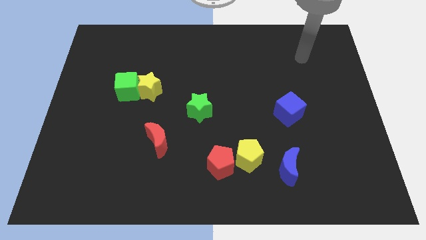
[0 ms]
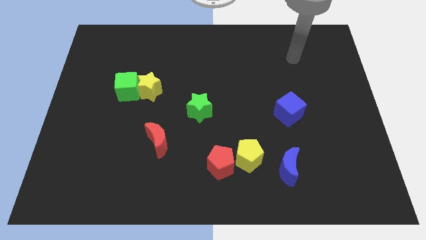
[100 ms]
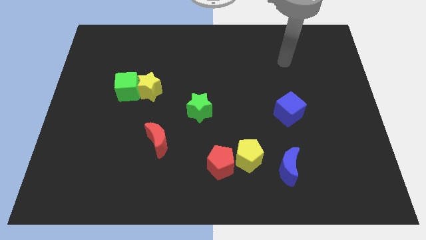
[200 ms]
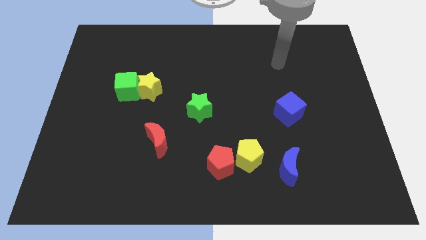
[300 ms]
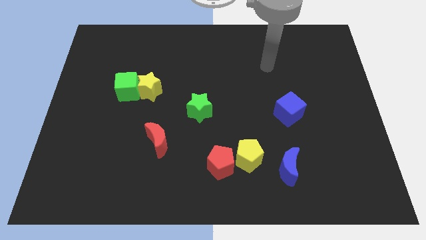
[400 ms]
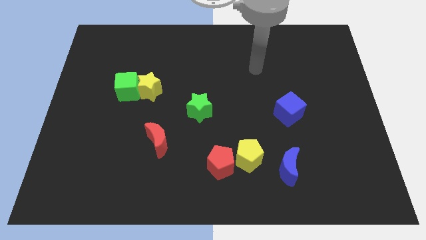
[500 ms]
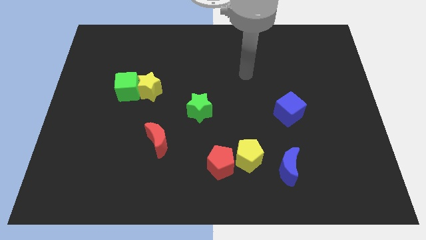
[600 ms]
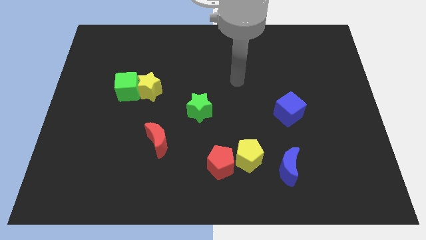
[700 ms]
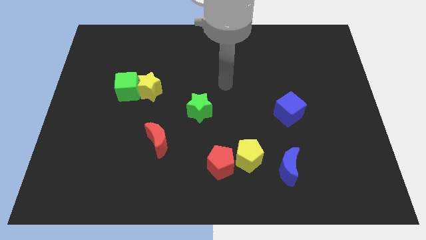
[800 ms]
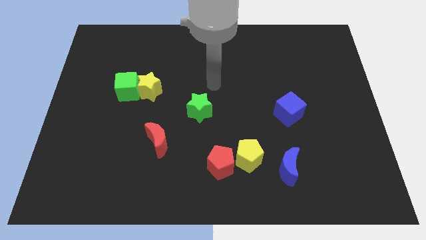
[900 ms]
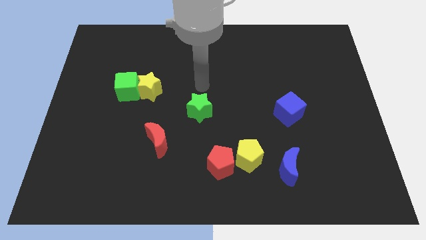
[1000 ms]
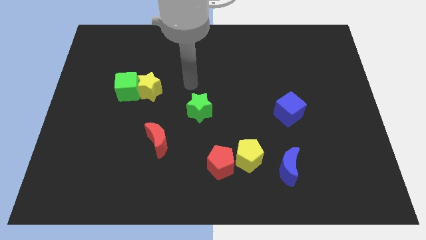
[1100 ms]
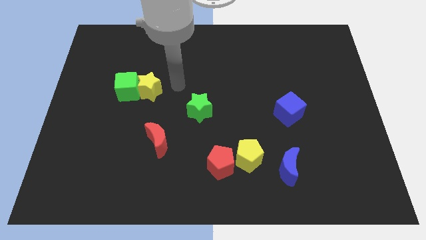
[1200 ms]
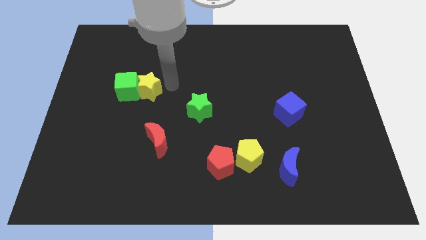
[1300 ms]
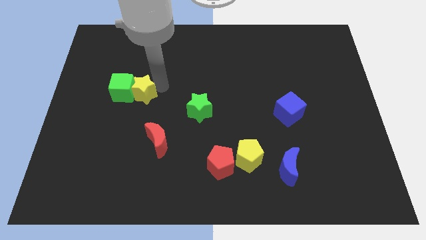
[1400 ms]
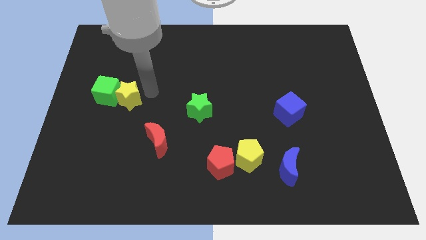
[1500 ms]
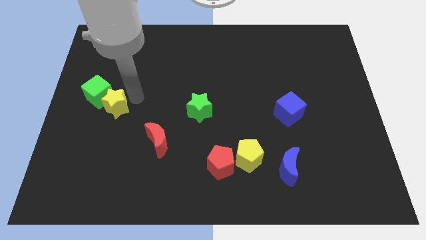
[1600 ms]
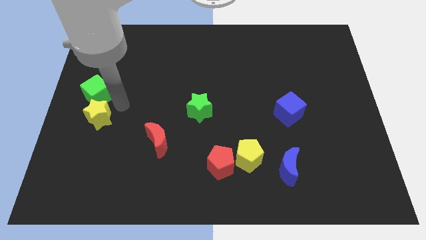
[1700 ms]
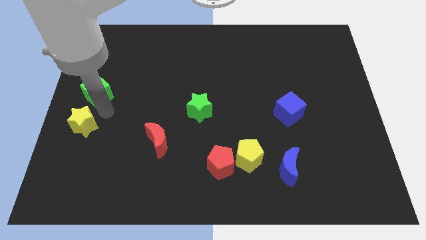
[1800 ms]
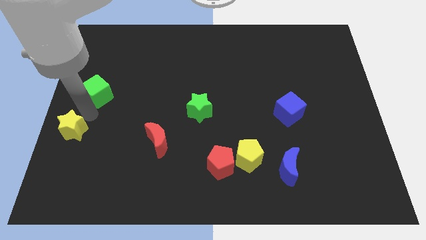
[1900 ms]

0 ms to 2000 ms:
separate the green cube from the yellow star

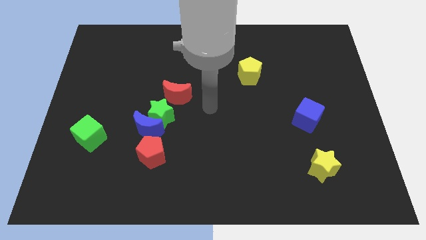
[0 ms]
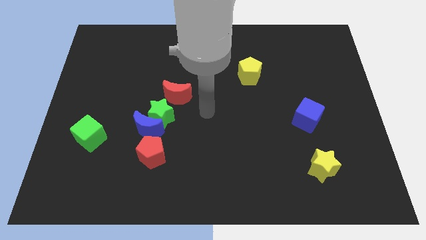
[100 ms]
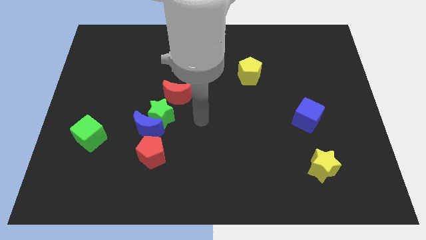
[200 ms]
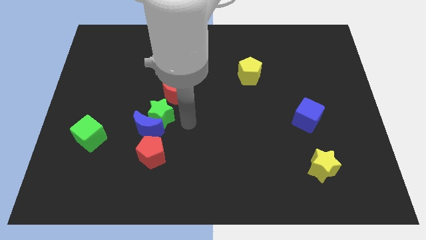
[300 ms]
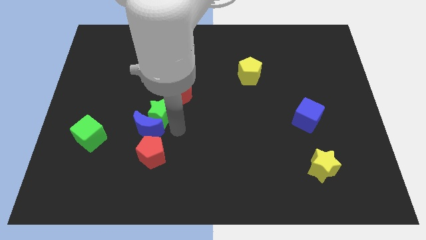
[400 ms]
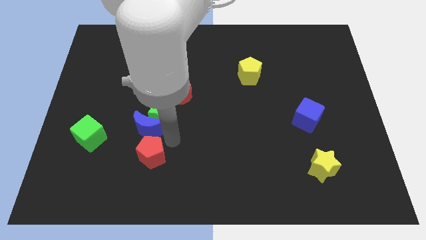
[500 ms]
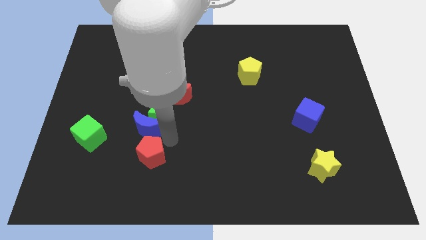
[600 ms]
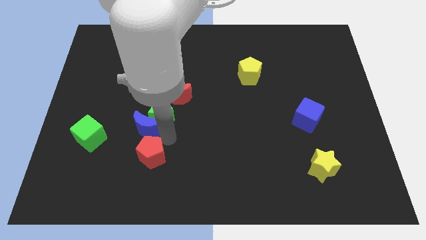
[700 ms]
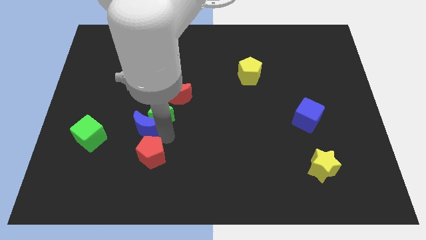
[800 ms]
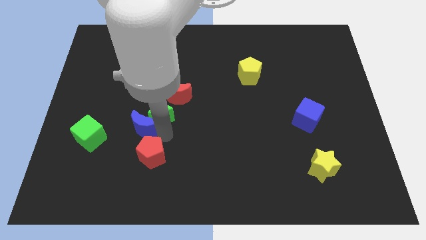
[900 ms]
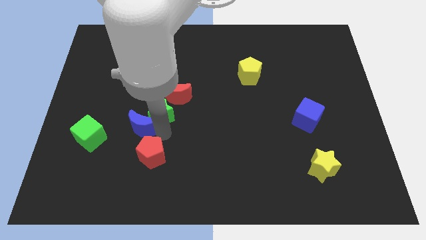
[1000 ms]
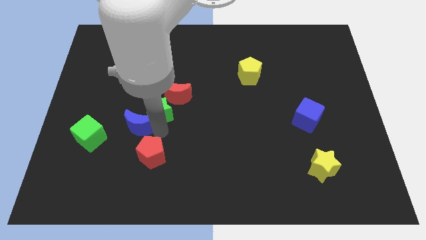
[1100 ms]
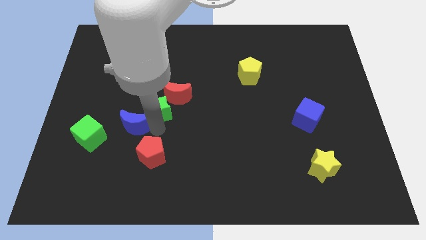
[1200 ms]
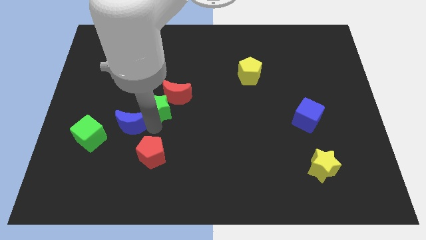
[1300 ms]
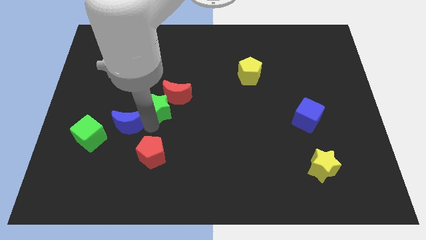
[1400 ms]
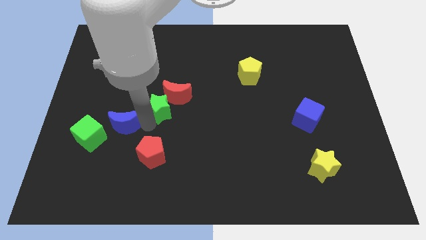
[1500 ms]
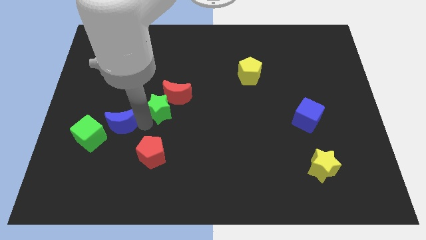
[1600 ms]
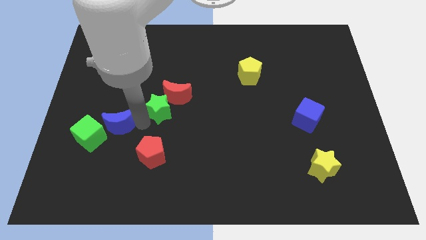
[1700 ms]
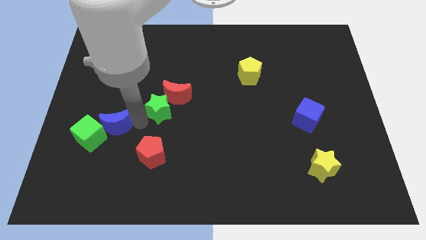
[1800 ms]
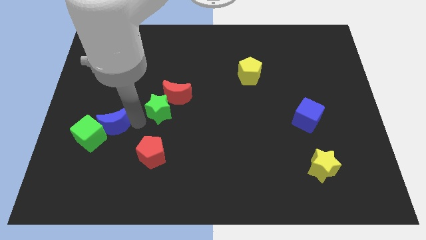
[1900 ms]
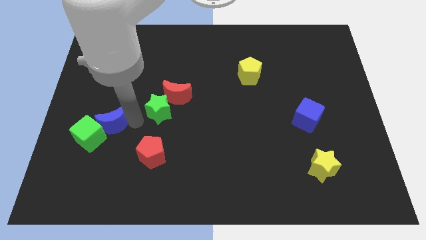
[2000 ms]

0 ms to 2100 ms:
pull the blue moon apart from the green star and red pentagon

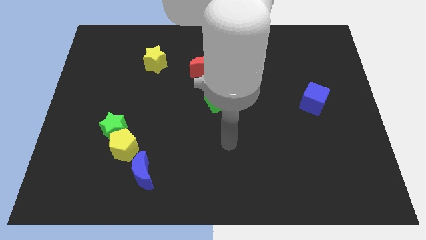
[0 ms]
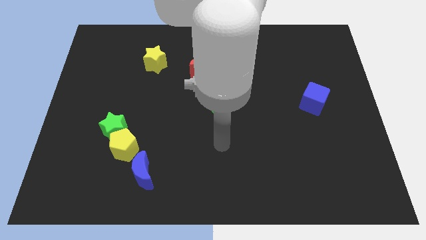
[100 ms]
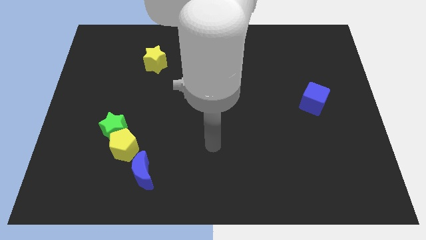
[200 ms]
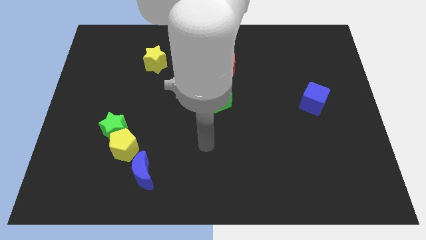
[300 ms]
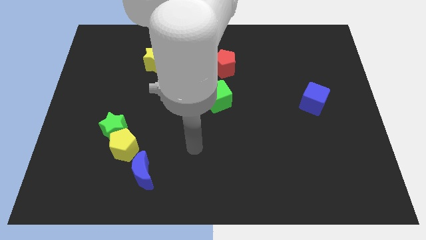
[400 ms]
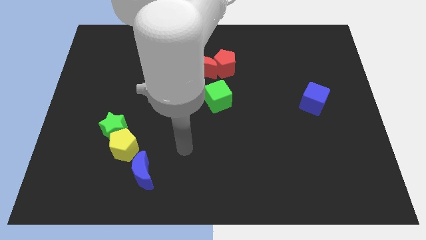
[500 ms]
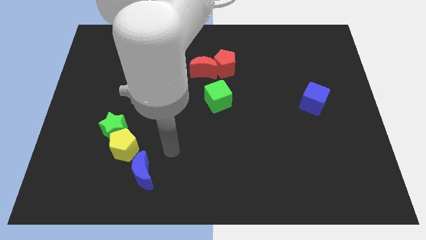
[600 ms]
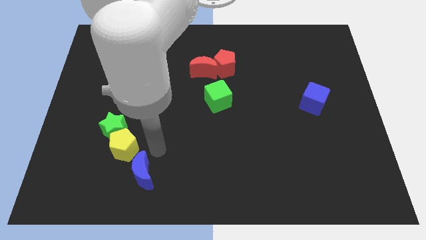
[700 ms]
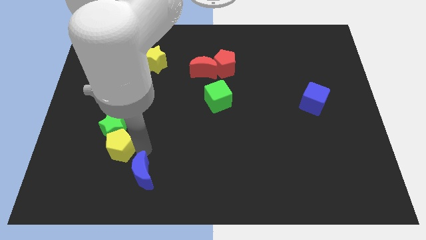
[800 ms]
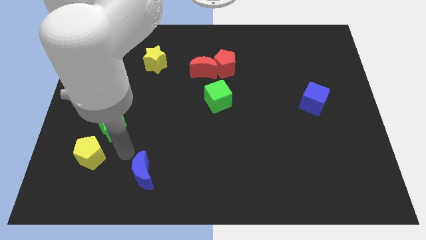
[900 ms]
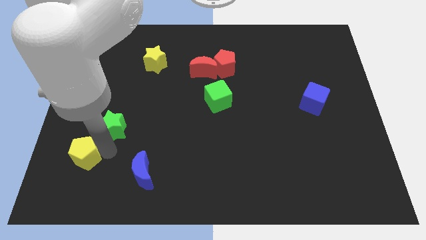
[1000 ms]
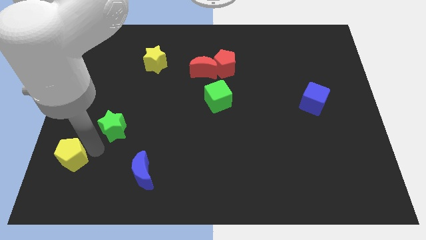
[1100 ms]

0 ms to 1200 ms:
pull the green star apart from the yellow pentagon

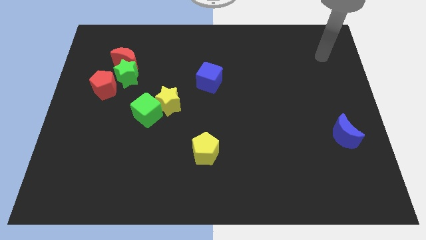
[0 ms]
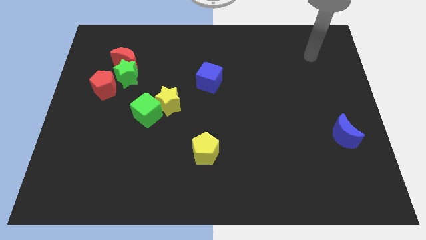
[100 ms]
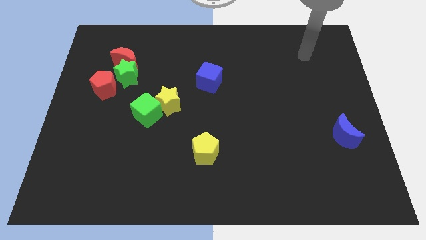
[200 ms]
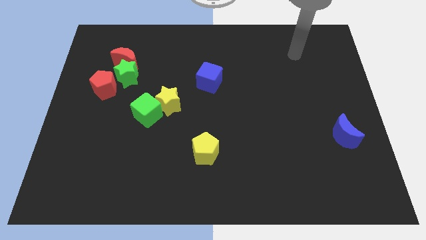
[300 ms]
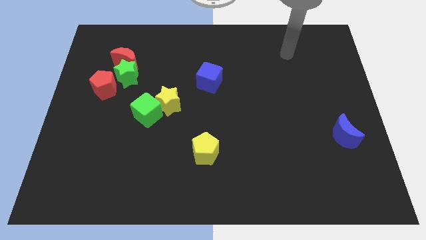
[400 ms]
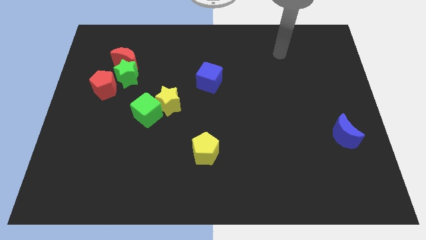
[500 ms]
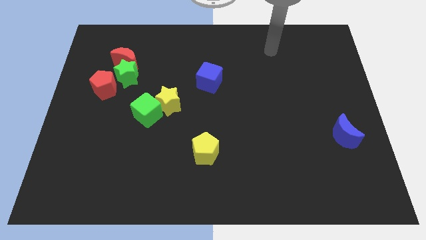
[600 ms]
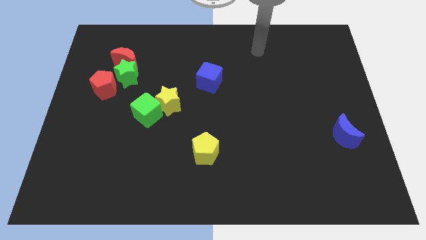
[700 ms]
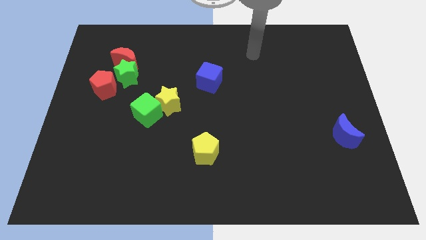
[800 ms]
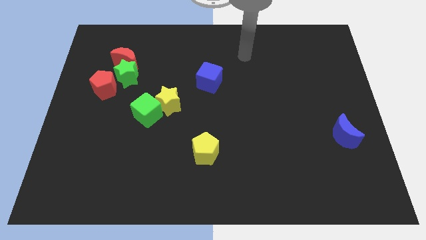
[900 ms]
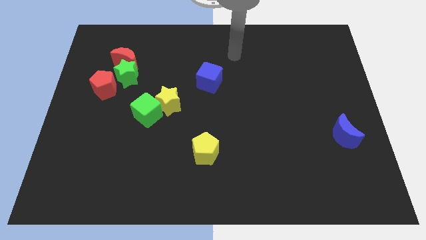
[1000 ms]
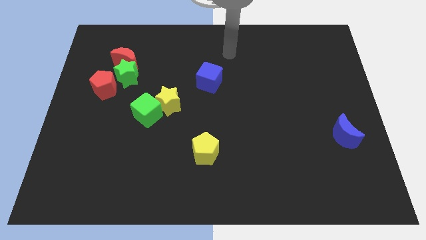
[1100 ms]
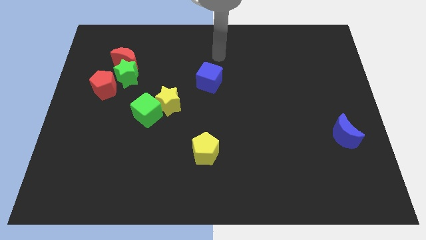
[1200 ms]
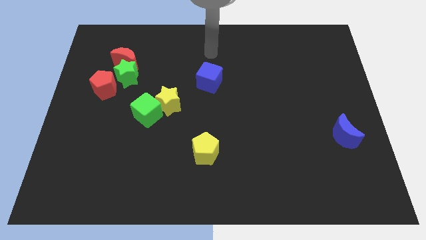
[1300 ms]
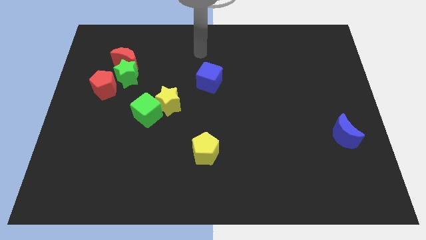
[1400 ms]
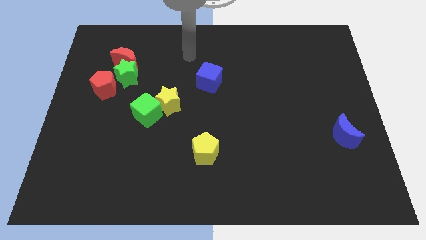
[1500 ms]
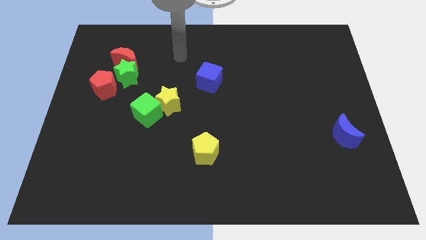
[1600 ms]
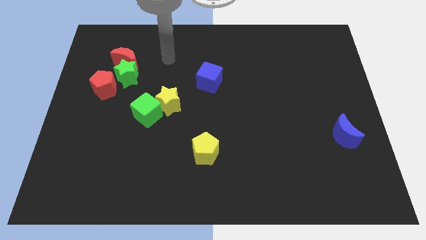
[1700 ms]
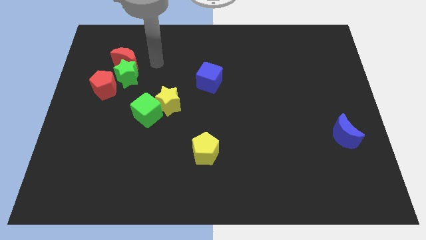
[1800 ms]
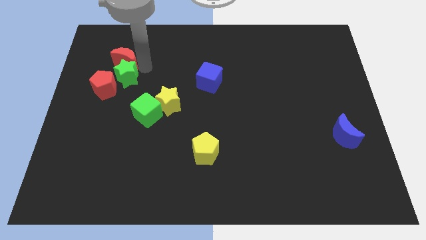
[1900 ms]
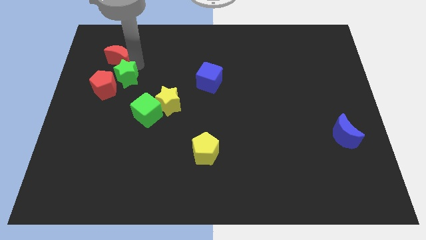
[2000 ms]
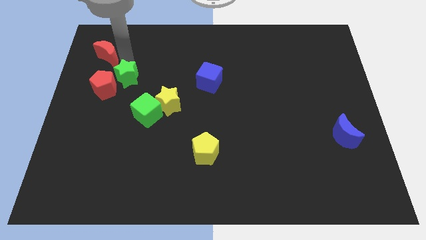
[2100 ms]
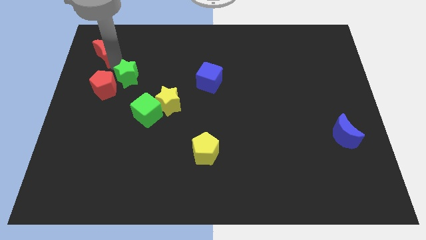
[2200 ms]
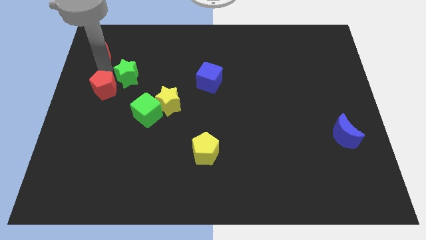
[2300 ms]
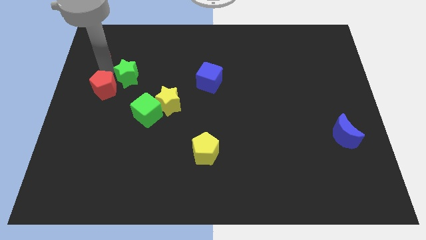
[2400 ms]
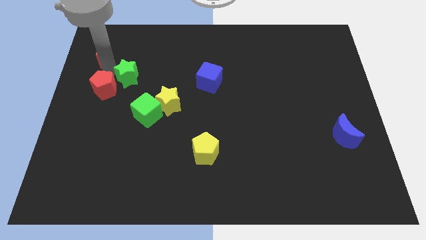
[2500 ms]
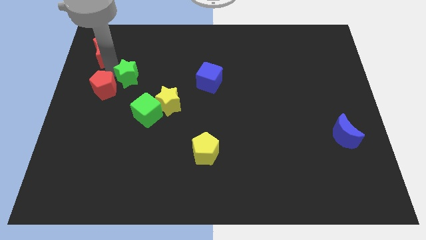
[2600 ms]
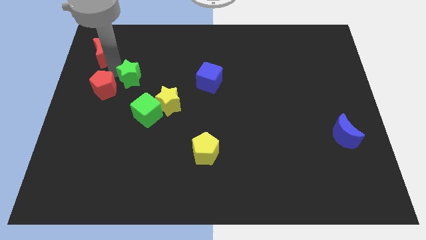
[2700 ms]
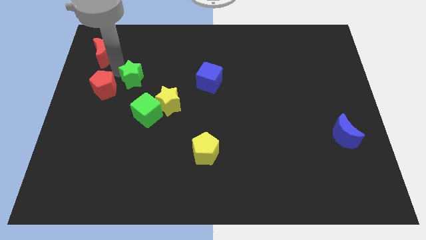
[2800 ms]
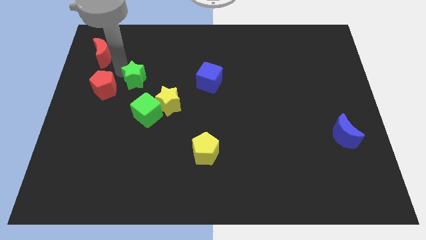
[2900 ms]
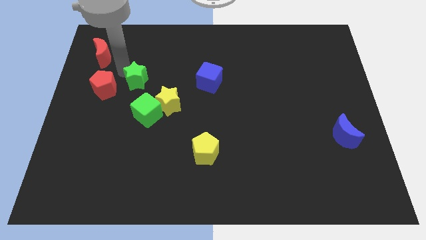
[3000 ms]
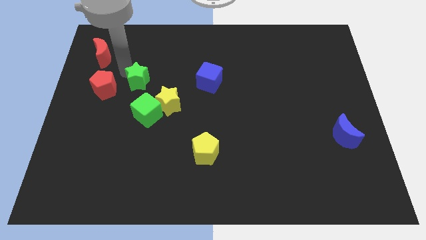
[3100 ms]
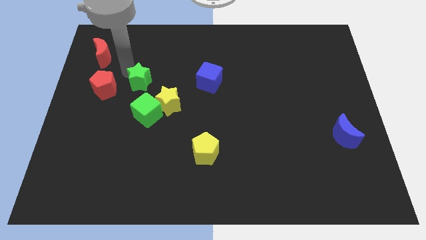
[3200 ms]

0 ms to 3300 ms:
move the green star away from the red moon and red pentagon

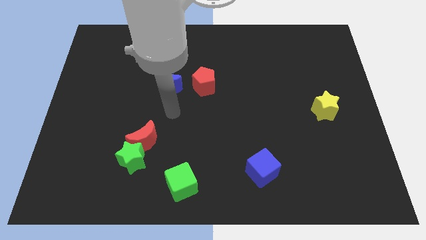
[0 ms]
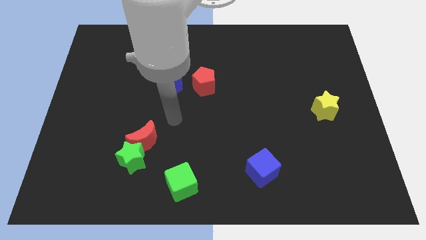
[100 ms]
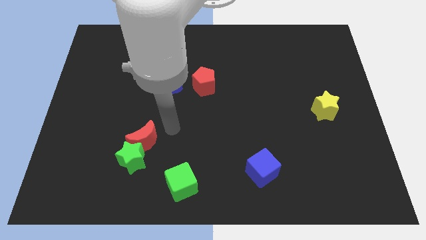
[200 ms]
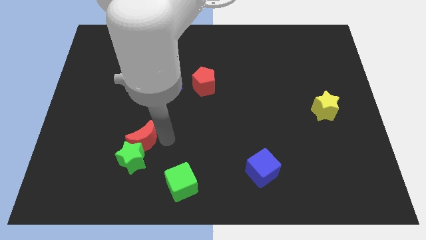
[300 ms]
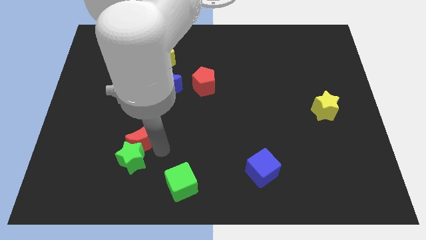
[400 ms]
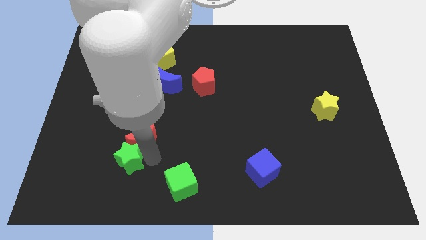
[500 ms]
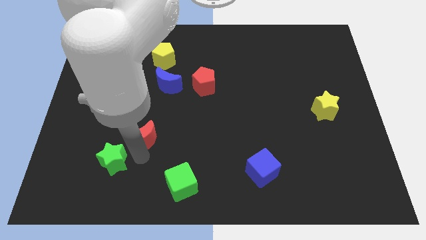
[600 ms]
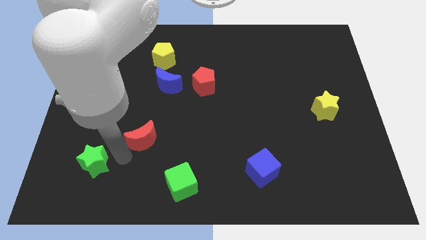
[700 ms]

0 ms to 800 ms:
separate the red moon from the green star
